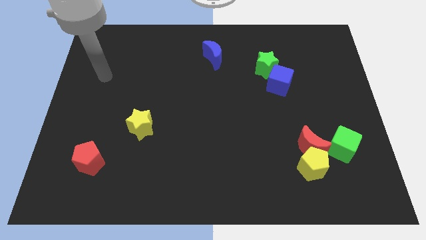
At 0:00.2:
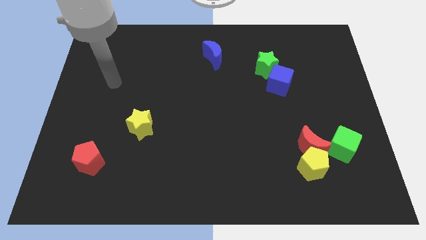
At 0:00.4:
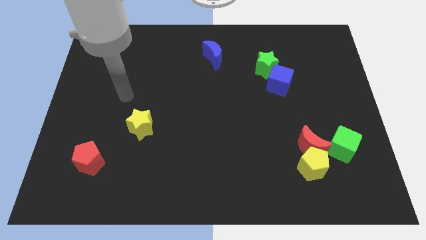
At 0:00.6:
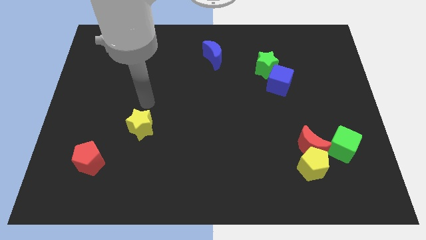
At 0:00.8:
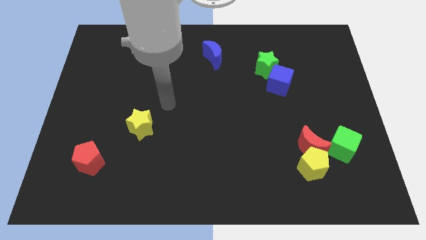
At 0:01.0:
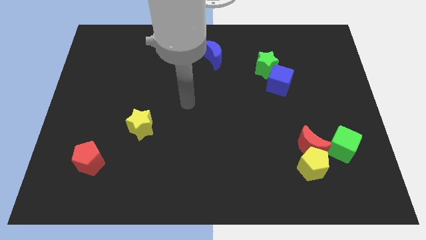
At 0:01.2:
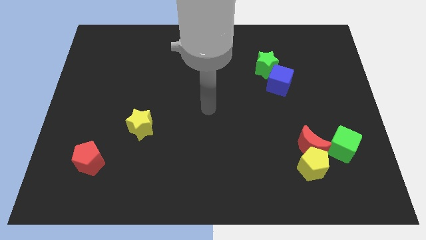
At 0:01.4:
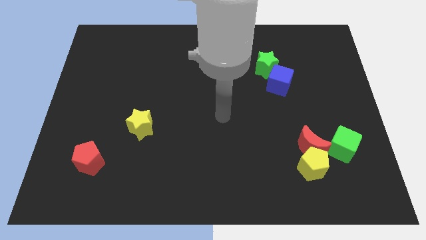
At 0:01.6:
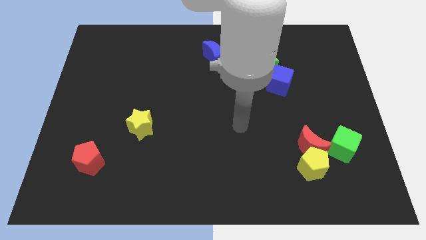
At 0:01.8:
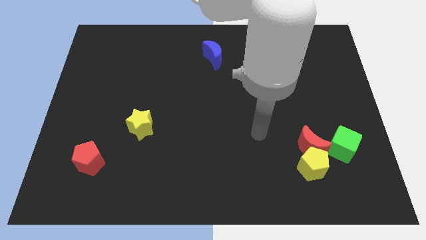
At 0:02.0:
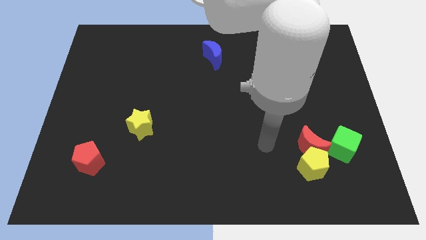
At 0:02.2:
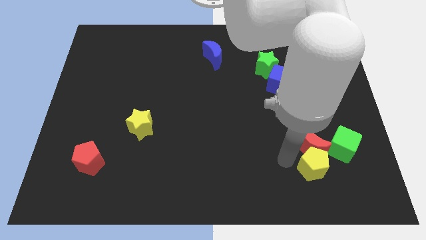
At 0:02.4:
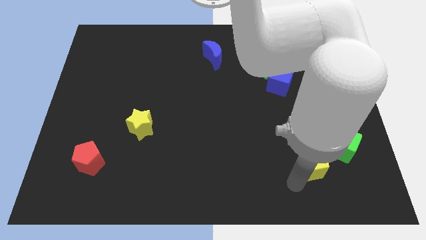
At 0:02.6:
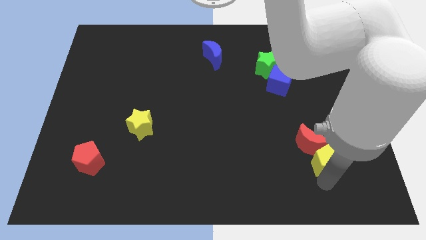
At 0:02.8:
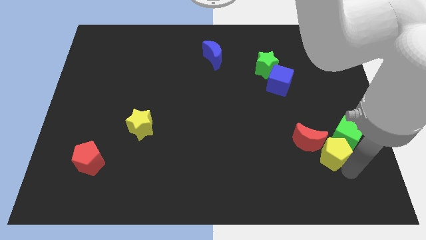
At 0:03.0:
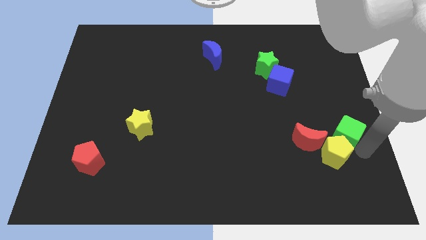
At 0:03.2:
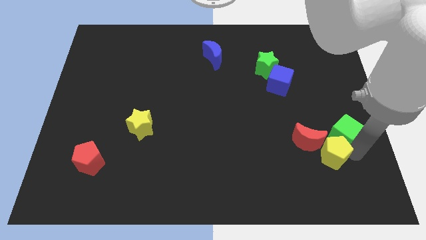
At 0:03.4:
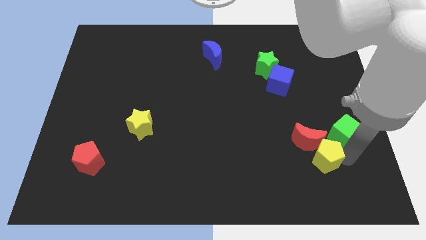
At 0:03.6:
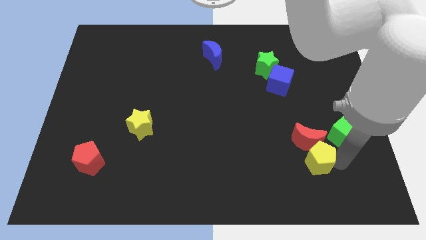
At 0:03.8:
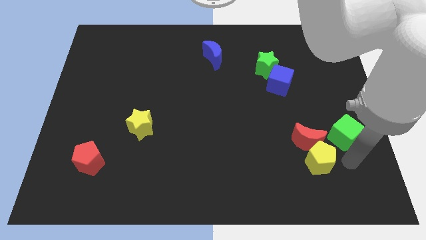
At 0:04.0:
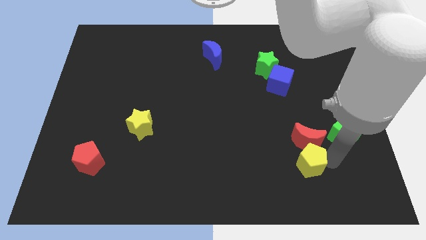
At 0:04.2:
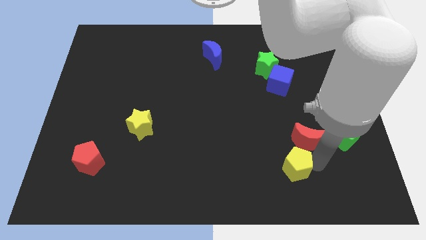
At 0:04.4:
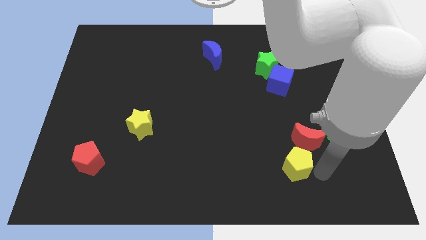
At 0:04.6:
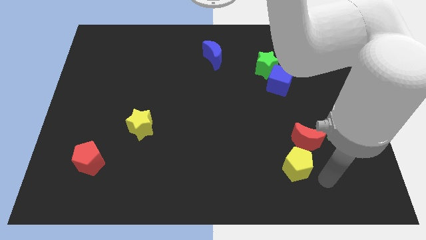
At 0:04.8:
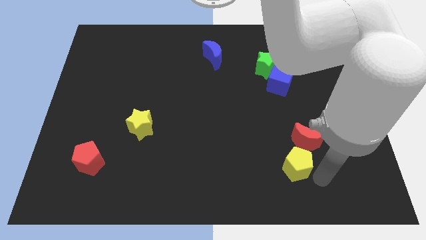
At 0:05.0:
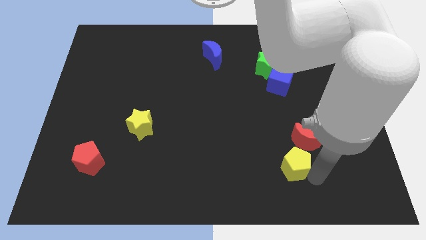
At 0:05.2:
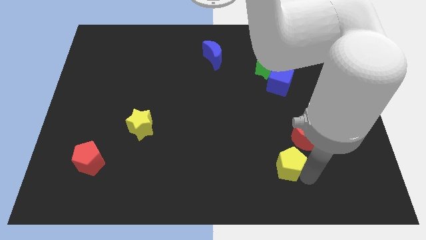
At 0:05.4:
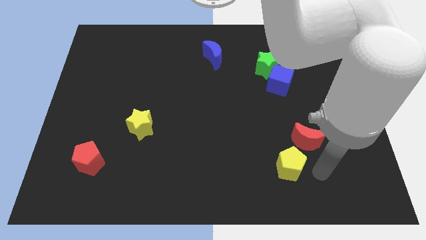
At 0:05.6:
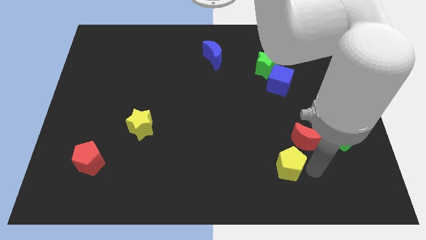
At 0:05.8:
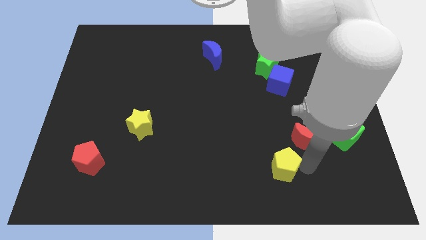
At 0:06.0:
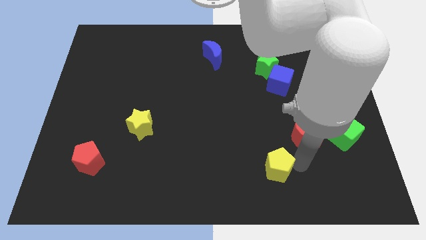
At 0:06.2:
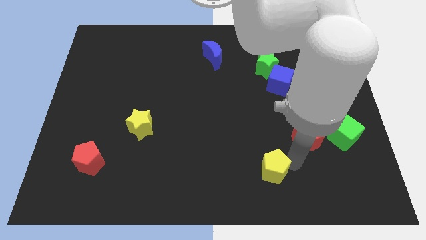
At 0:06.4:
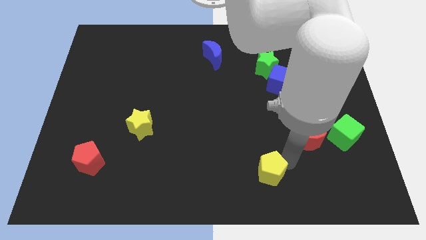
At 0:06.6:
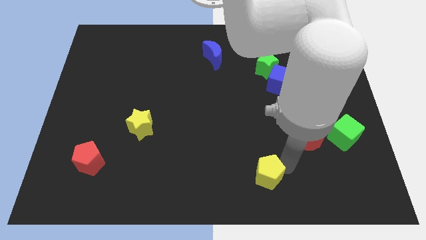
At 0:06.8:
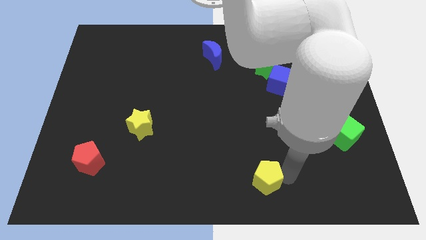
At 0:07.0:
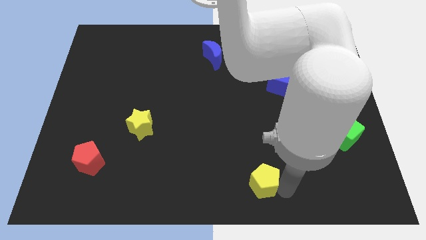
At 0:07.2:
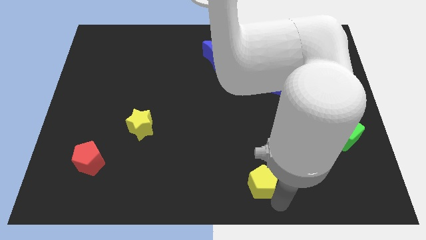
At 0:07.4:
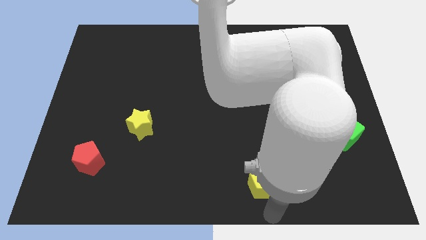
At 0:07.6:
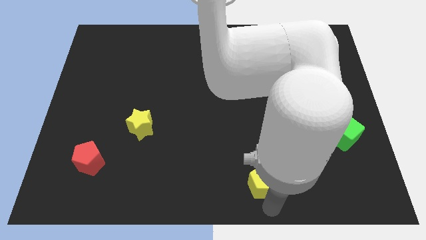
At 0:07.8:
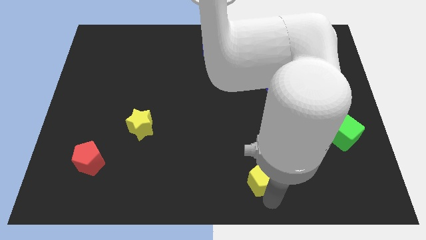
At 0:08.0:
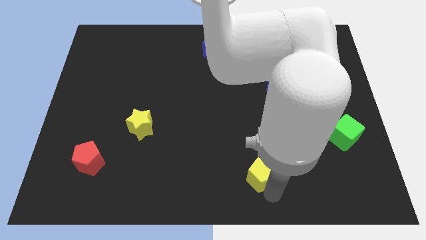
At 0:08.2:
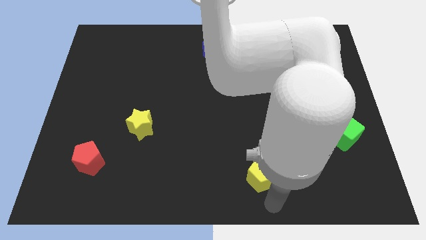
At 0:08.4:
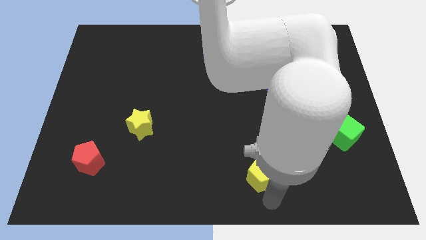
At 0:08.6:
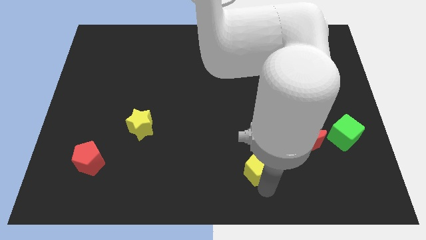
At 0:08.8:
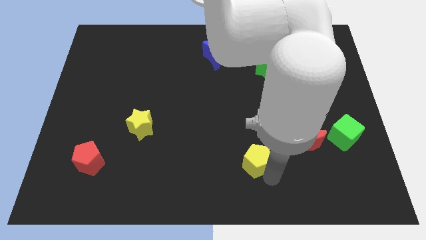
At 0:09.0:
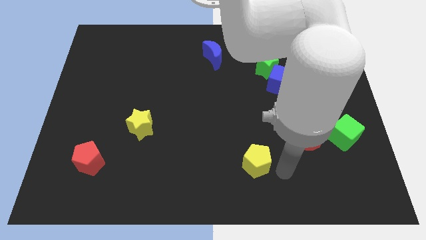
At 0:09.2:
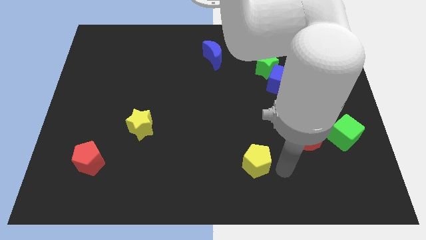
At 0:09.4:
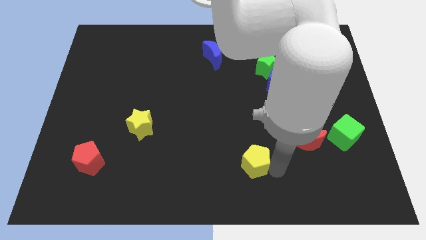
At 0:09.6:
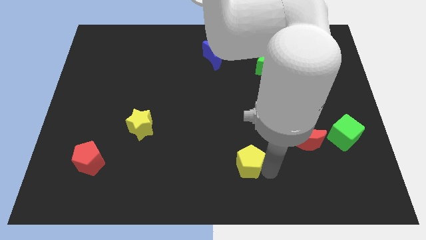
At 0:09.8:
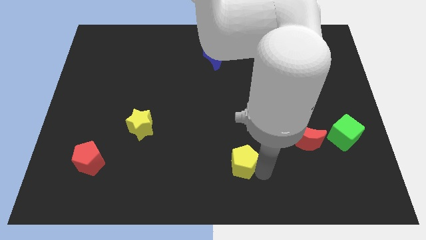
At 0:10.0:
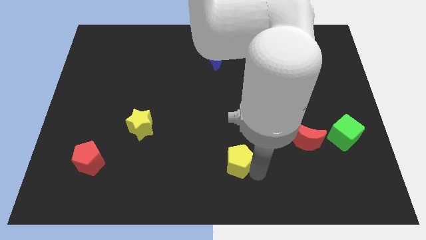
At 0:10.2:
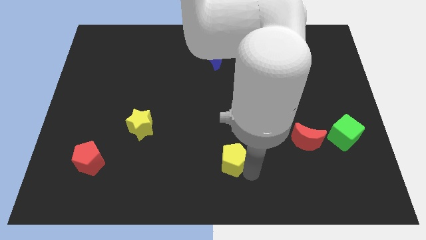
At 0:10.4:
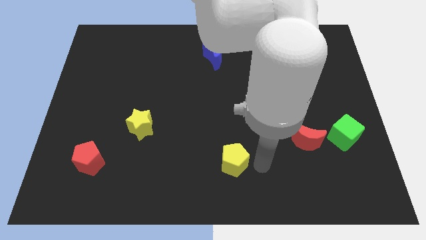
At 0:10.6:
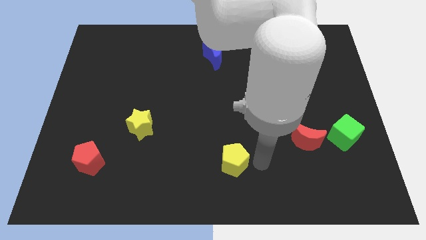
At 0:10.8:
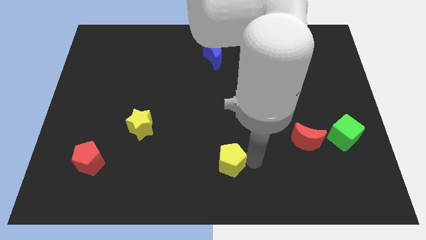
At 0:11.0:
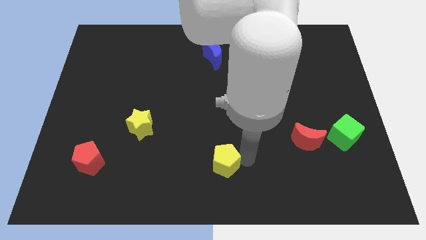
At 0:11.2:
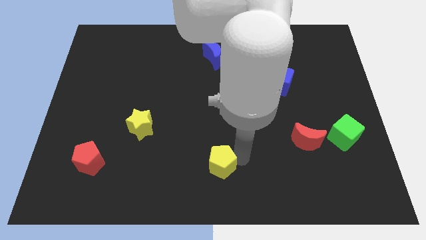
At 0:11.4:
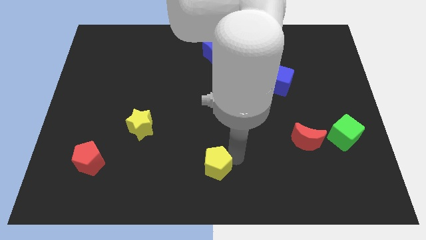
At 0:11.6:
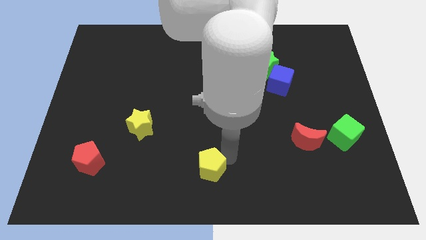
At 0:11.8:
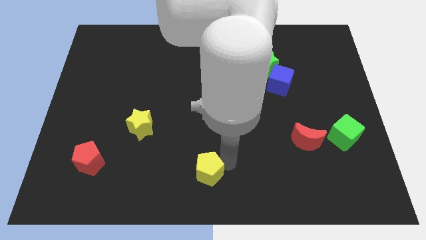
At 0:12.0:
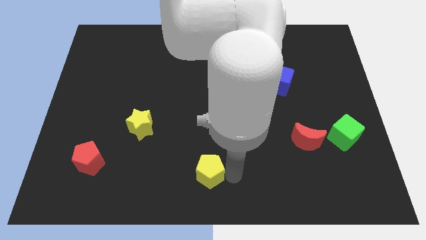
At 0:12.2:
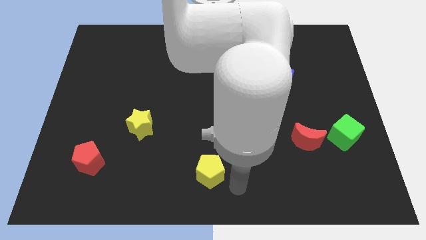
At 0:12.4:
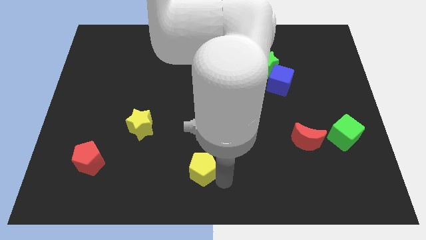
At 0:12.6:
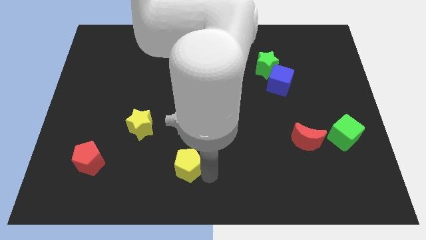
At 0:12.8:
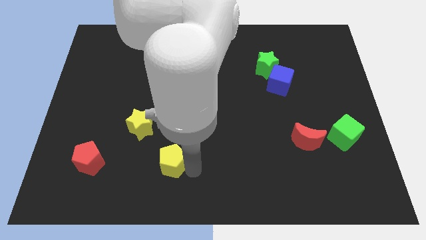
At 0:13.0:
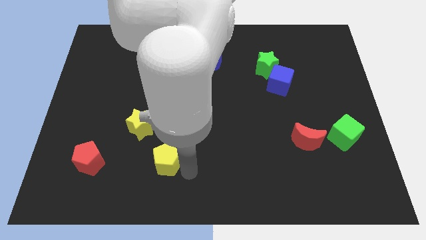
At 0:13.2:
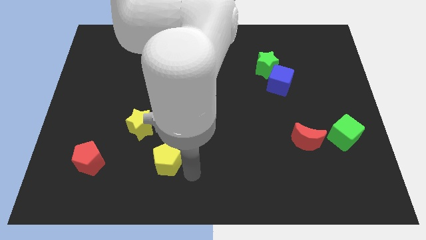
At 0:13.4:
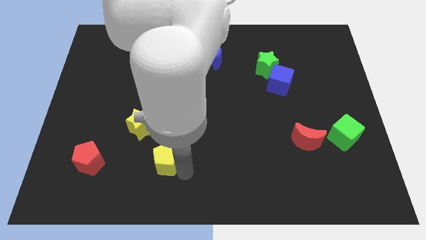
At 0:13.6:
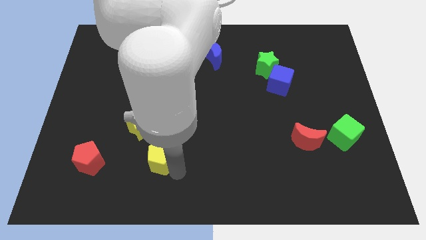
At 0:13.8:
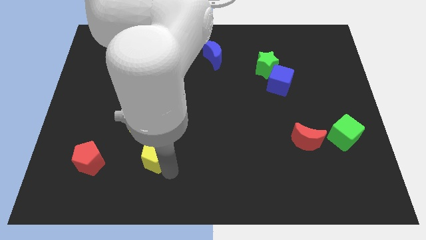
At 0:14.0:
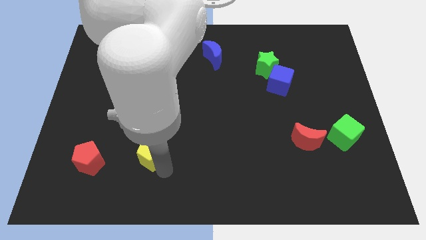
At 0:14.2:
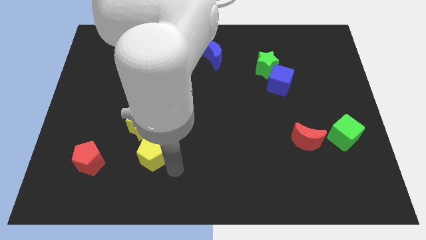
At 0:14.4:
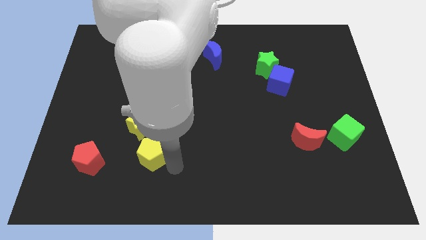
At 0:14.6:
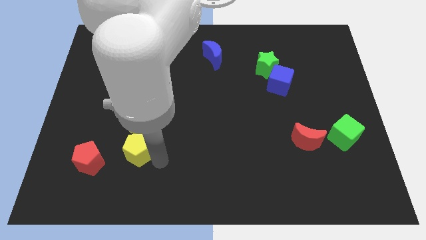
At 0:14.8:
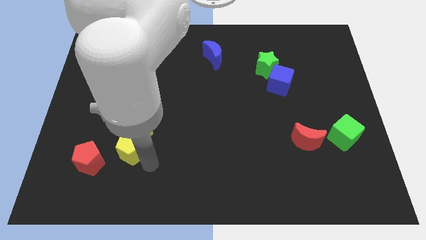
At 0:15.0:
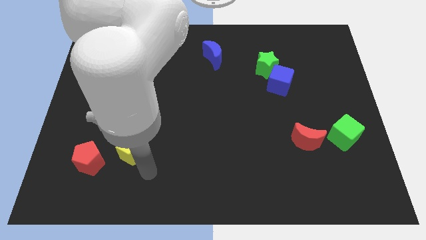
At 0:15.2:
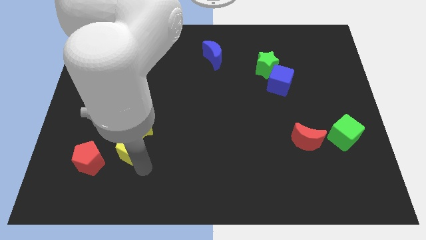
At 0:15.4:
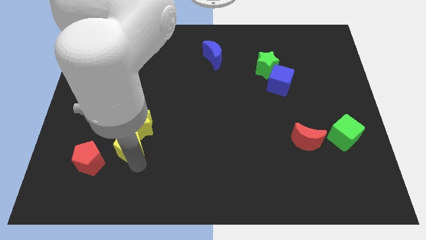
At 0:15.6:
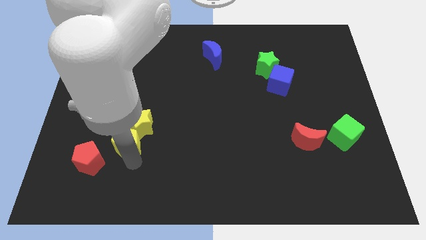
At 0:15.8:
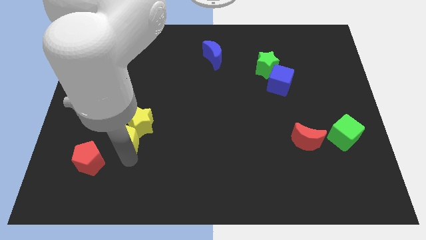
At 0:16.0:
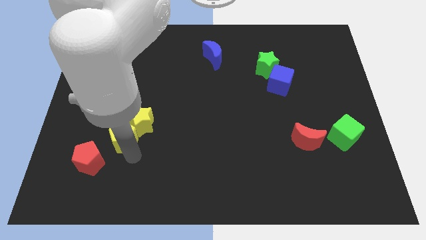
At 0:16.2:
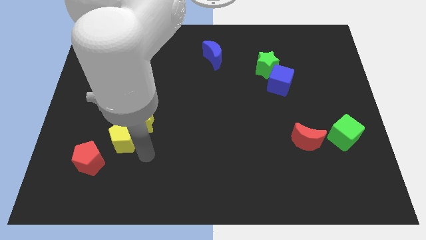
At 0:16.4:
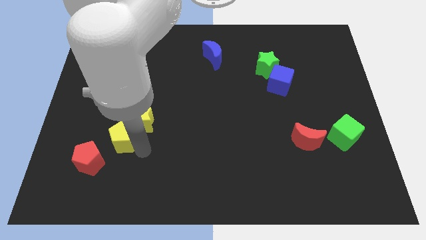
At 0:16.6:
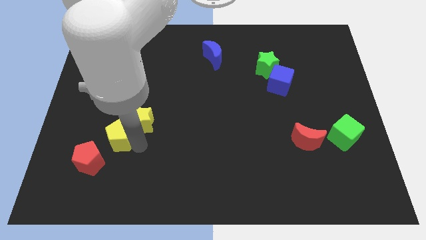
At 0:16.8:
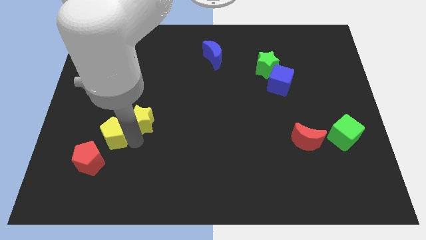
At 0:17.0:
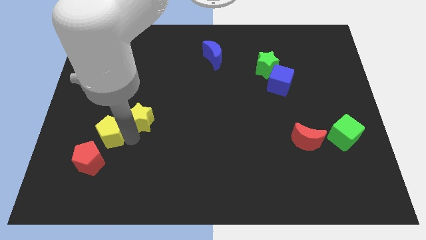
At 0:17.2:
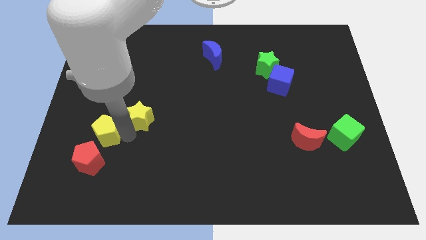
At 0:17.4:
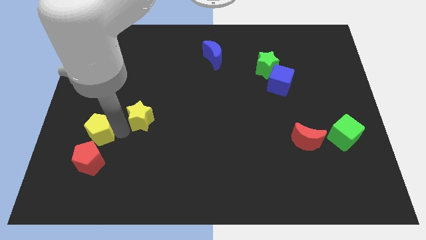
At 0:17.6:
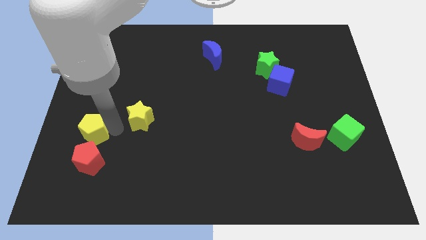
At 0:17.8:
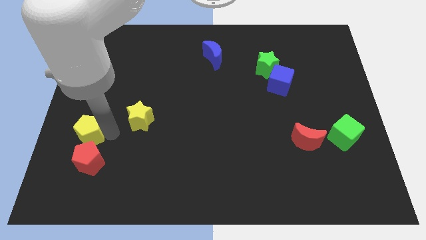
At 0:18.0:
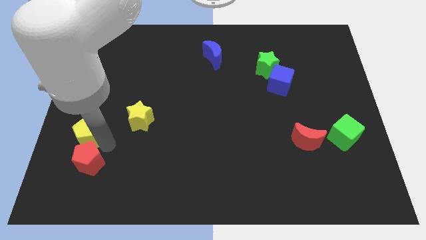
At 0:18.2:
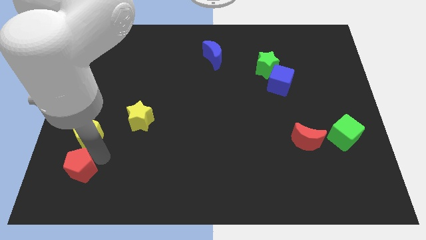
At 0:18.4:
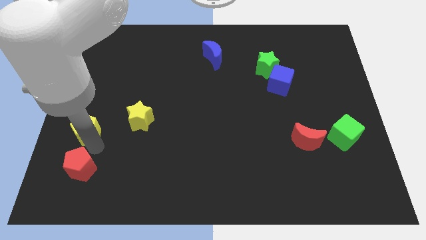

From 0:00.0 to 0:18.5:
slide the yellow pentagon to the left side
